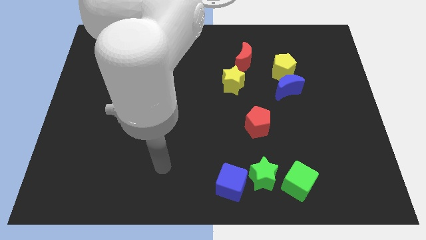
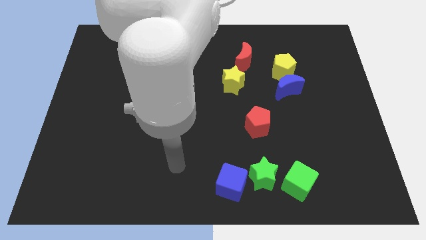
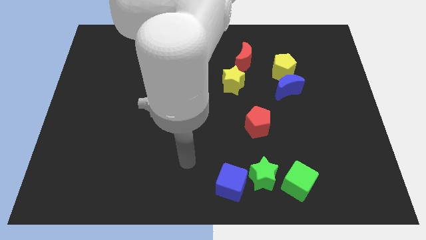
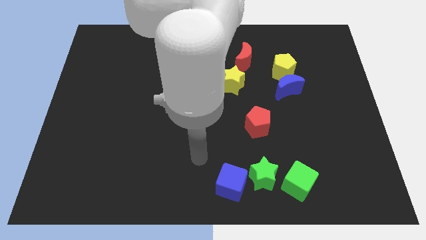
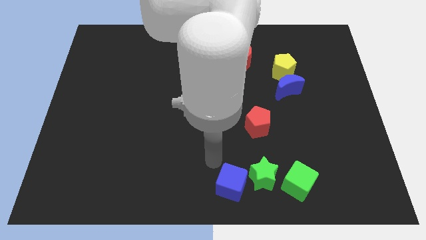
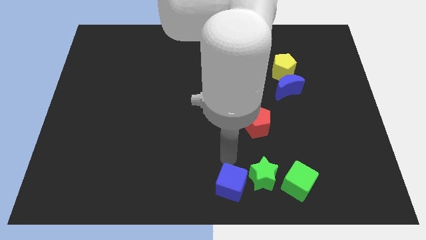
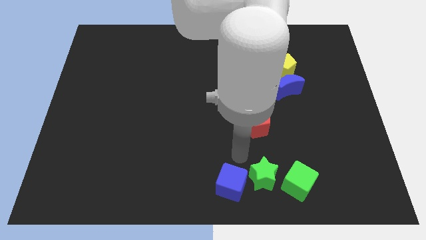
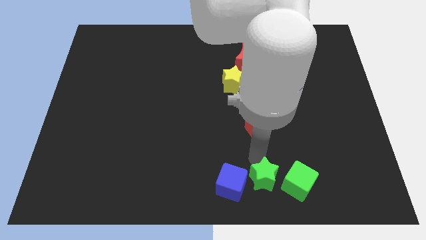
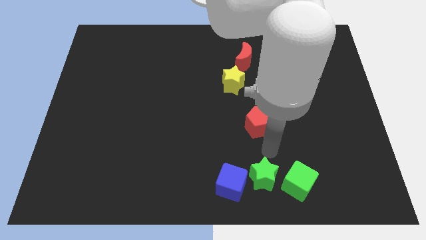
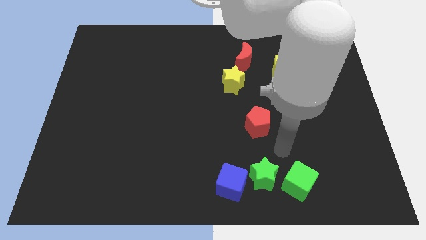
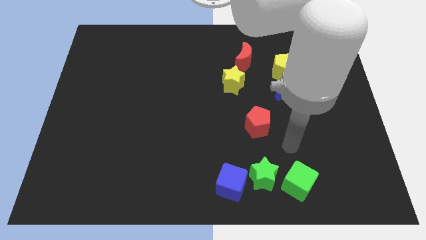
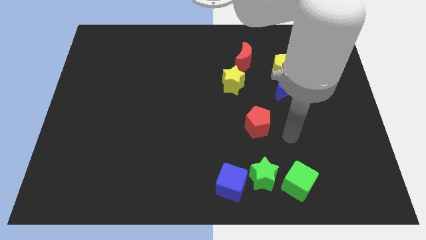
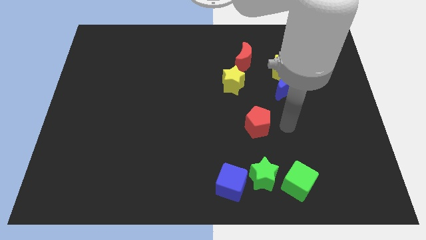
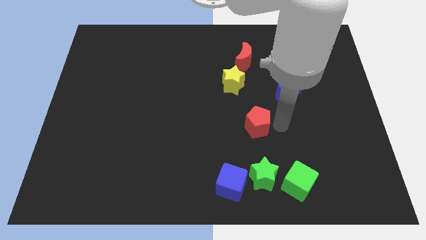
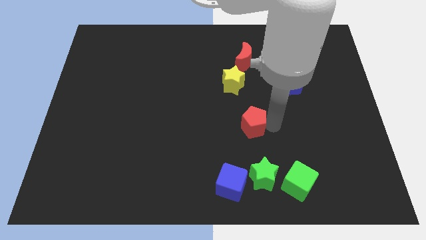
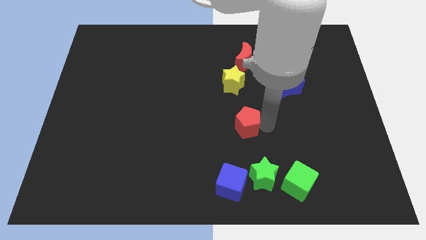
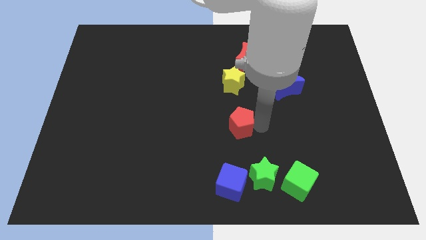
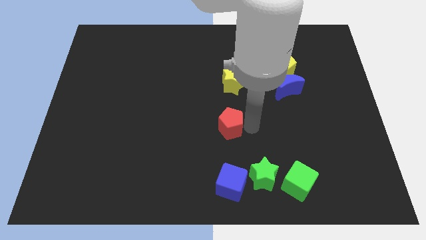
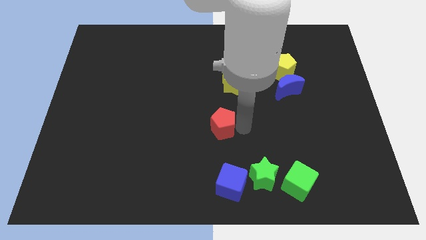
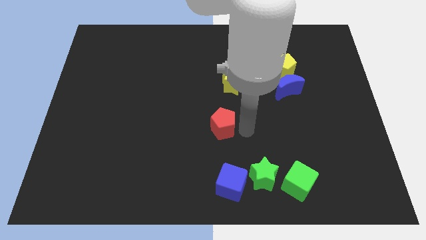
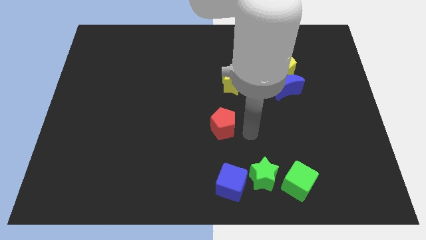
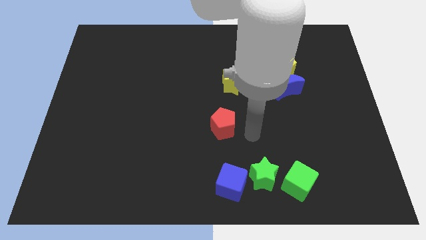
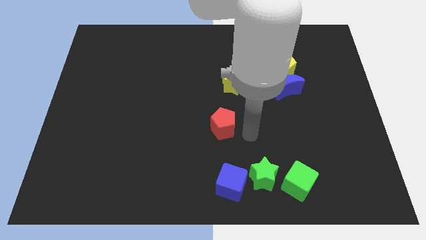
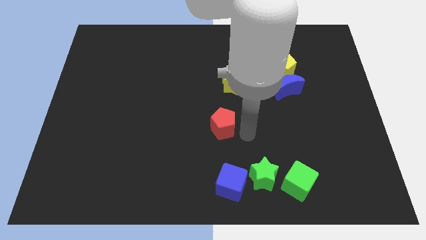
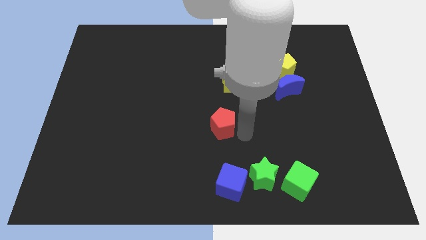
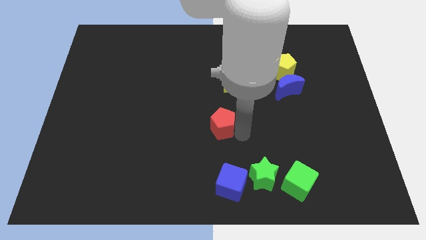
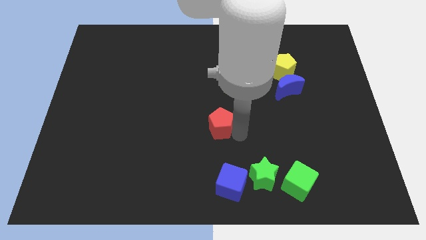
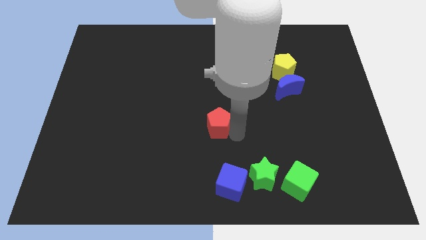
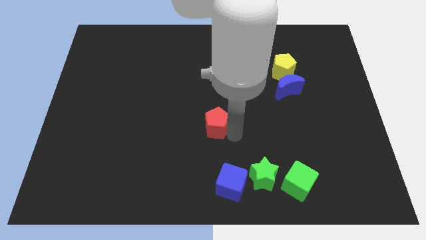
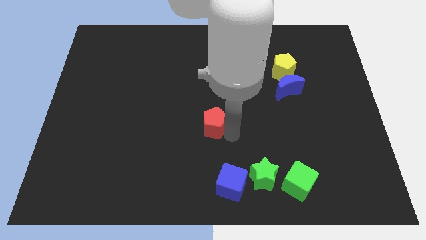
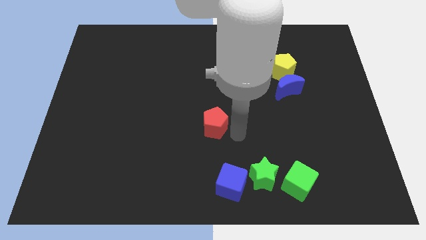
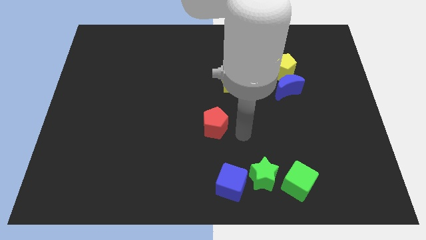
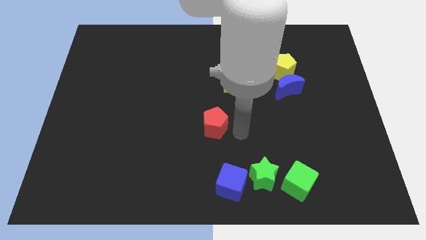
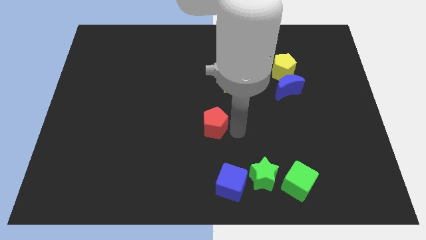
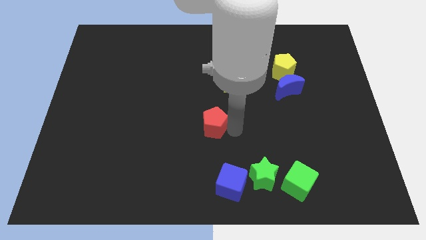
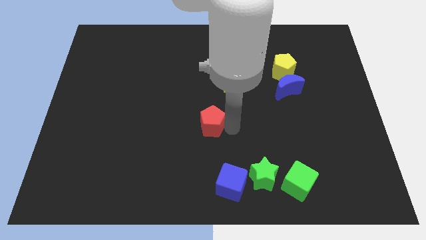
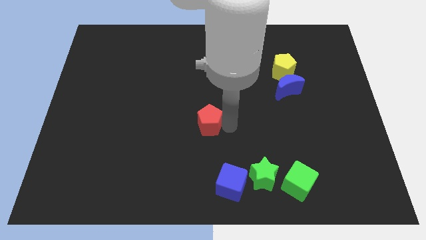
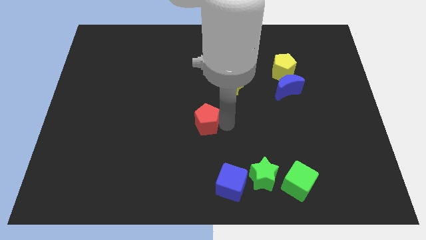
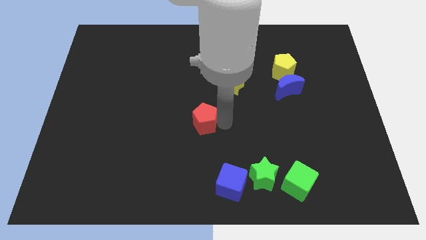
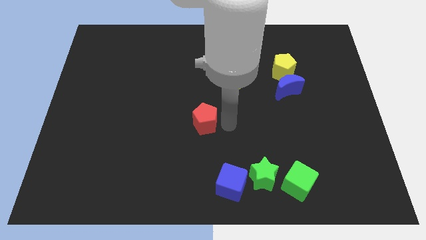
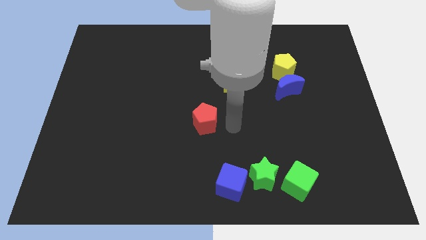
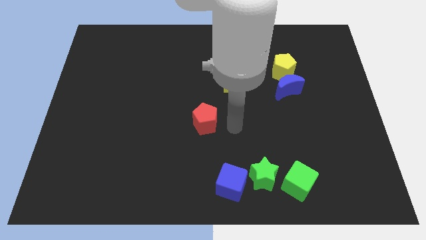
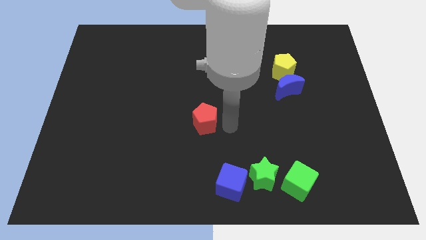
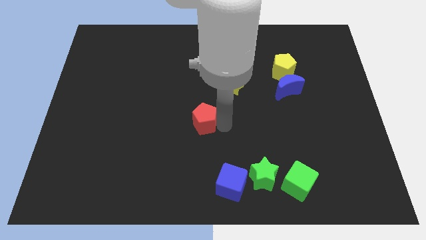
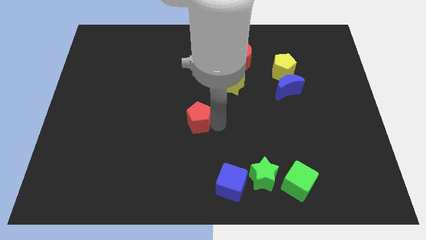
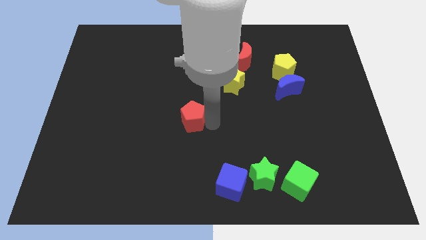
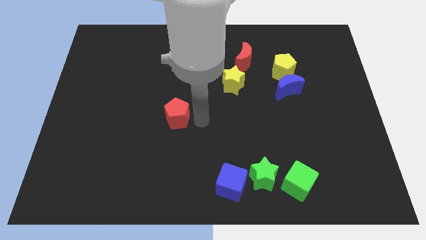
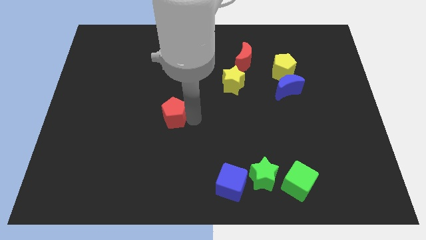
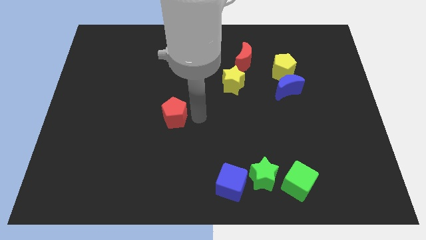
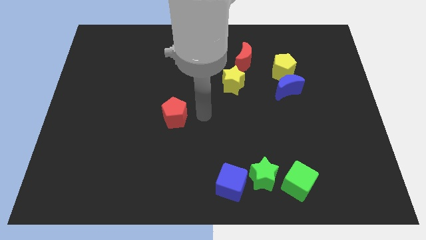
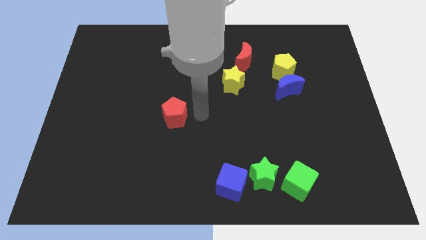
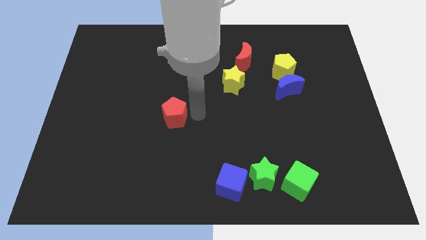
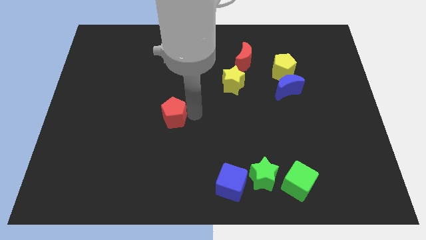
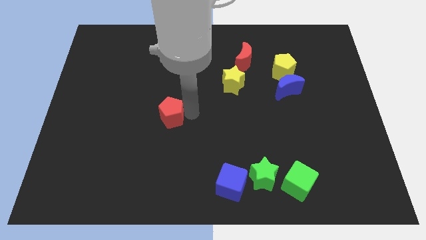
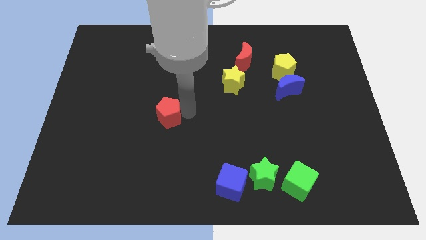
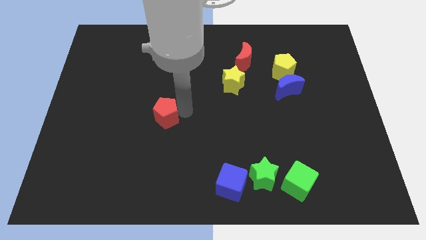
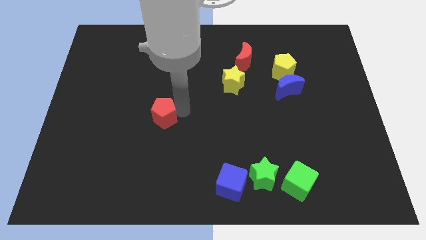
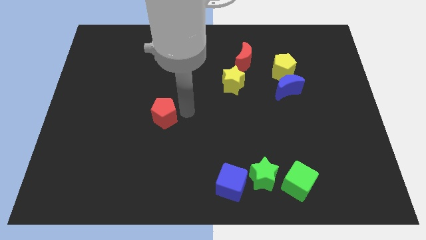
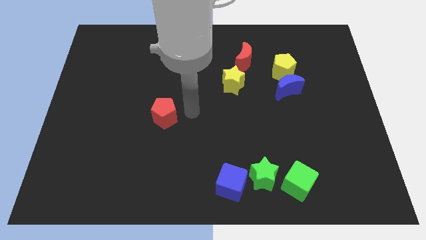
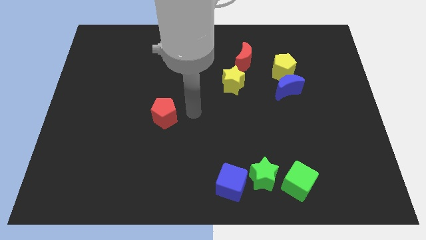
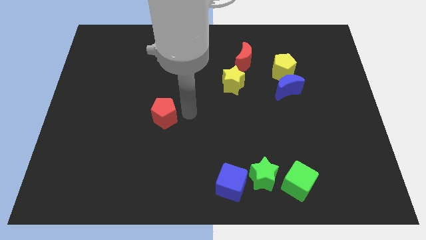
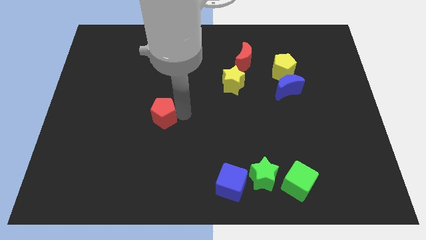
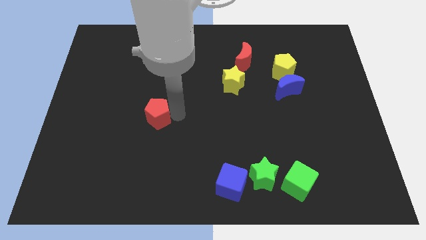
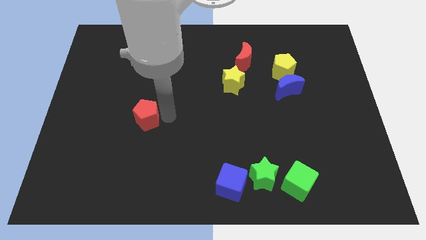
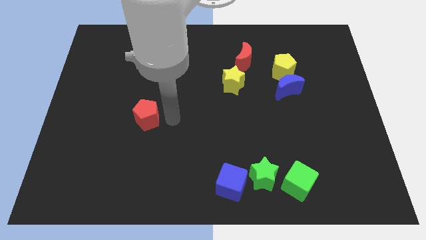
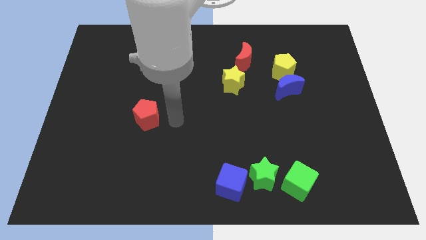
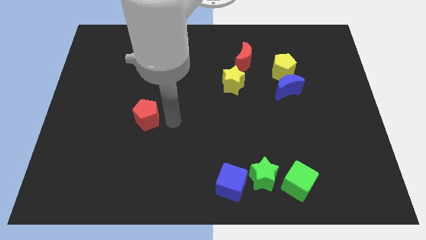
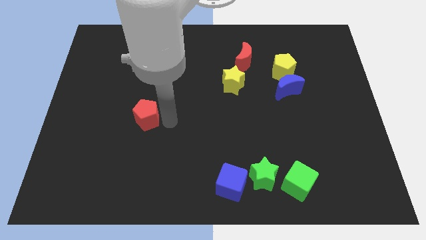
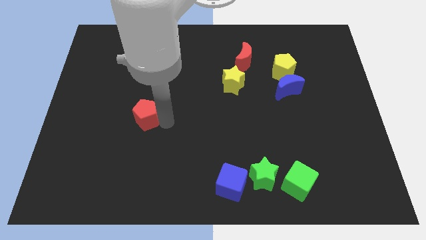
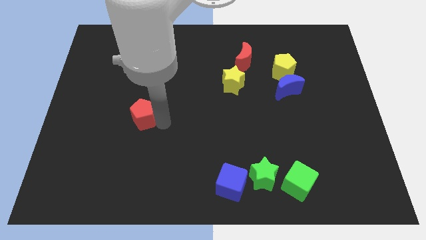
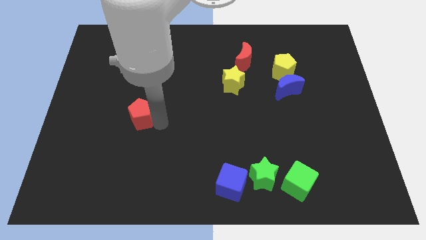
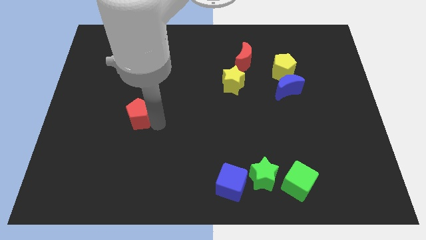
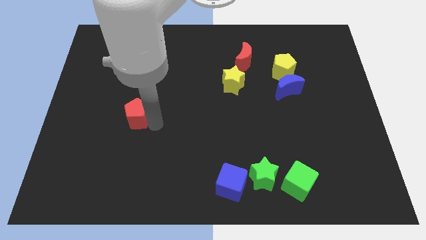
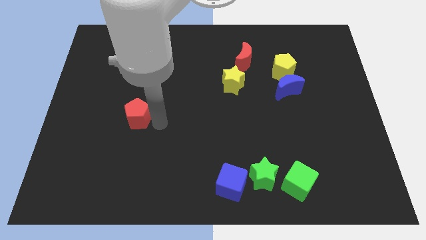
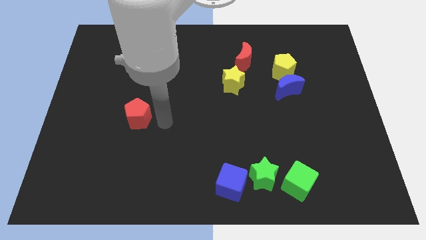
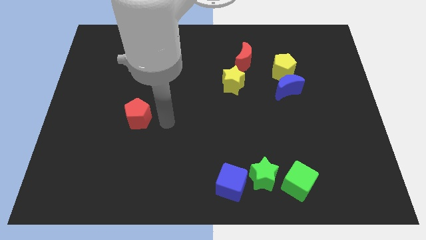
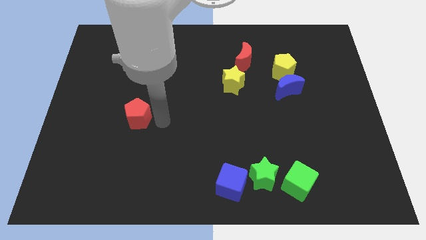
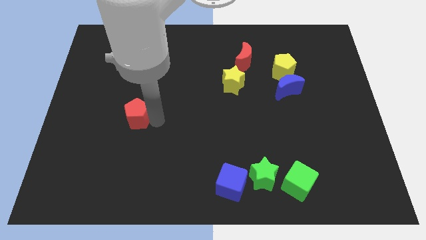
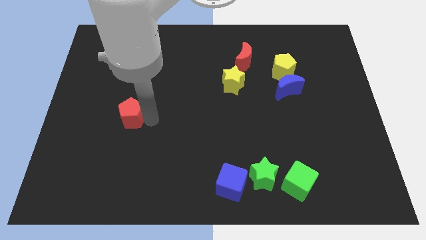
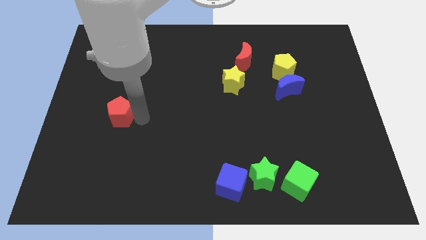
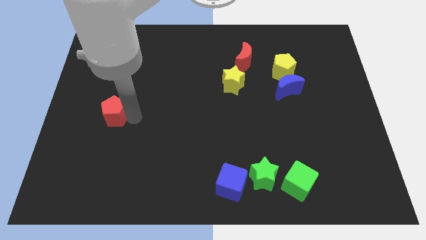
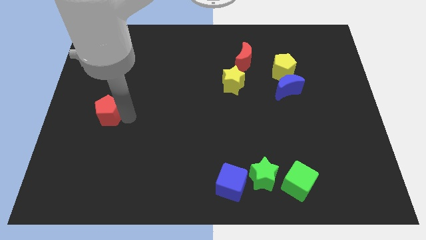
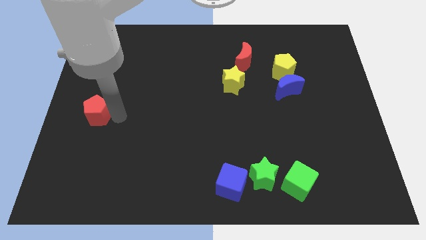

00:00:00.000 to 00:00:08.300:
push the red pentagon to the left side of the board
